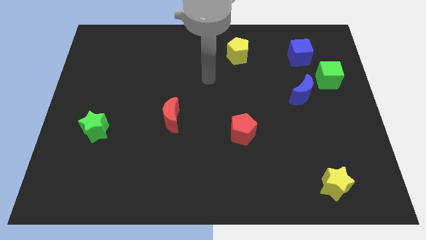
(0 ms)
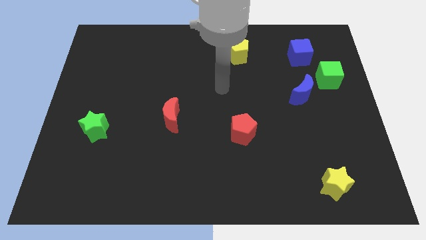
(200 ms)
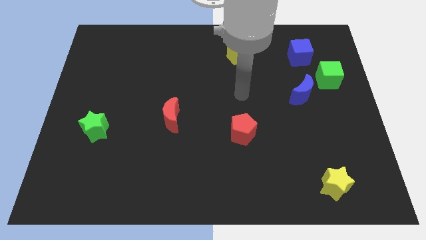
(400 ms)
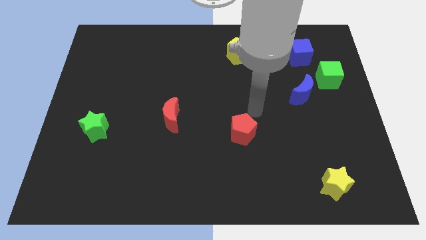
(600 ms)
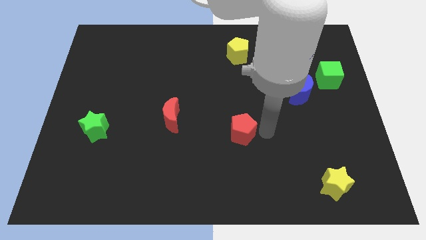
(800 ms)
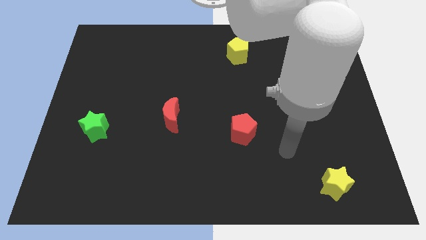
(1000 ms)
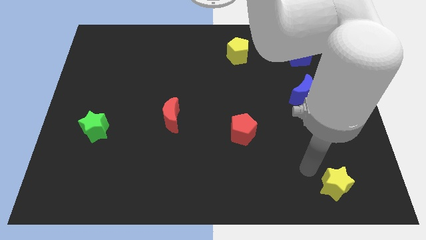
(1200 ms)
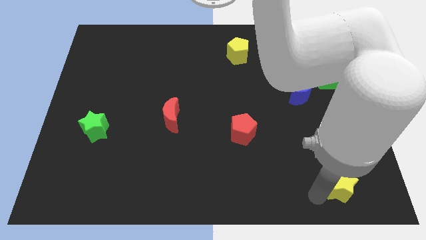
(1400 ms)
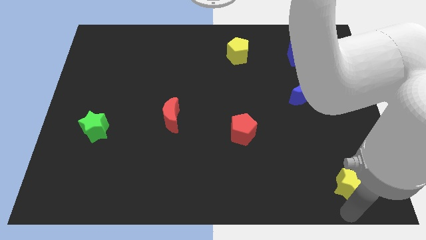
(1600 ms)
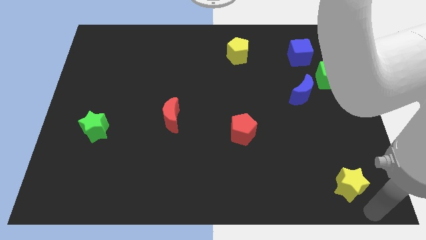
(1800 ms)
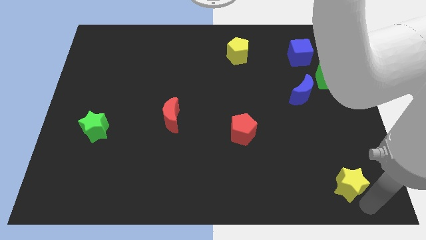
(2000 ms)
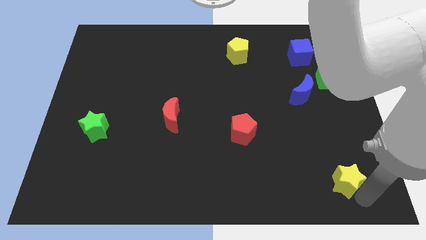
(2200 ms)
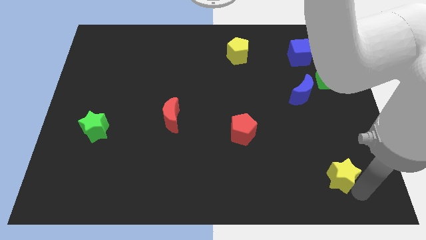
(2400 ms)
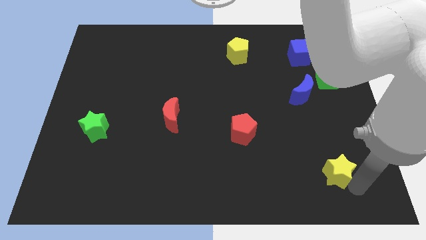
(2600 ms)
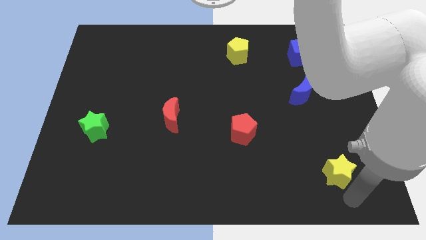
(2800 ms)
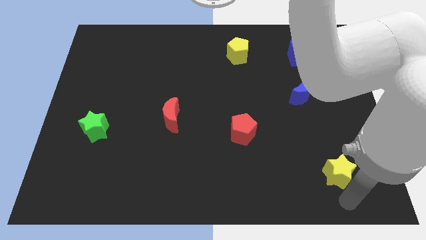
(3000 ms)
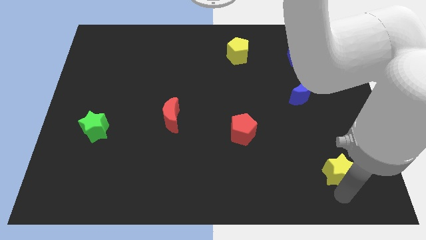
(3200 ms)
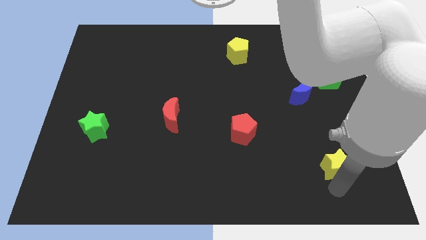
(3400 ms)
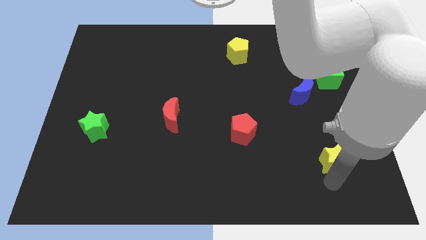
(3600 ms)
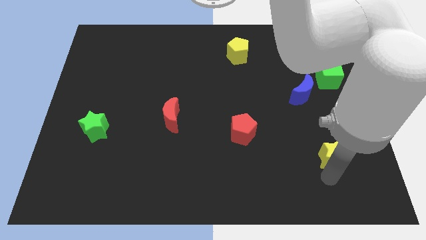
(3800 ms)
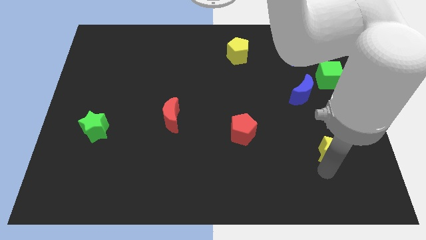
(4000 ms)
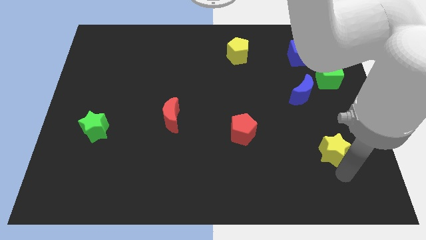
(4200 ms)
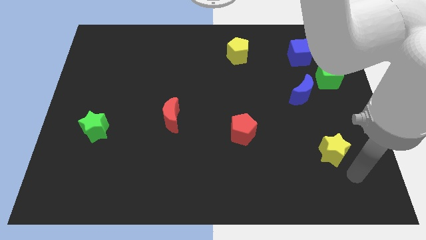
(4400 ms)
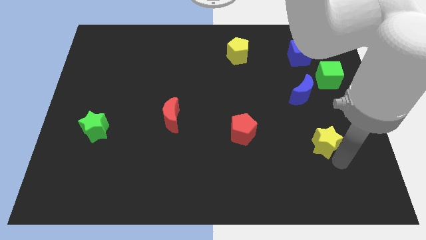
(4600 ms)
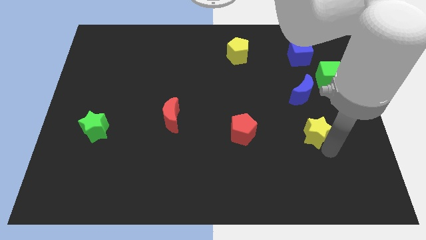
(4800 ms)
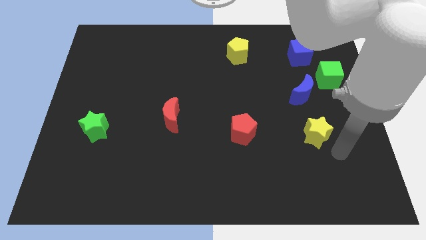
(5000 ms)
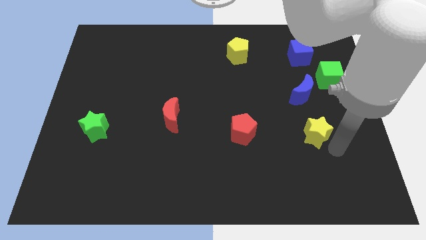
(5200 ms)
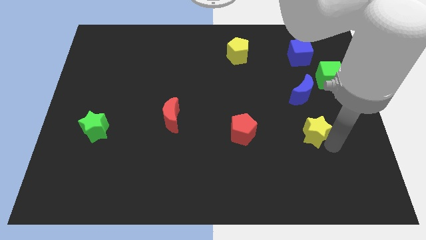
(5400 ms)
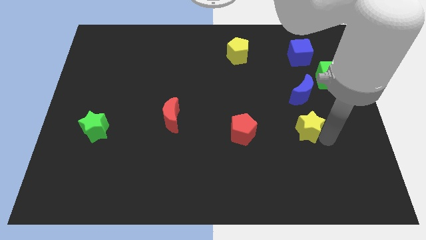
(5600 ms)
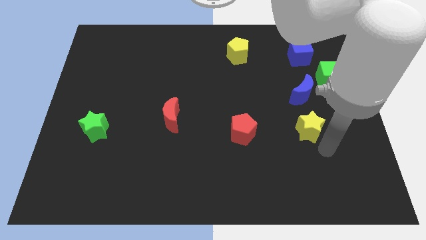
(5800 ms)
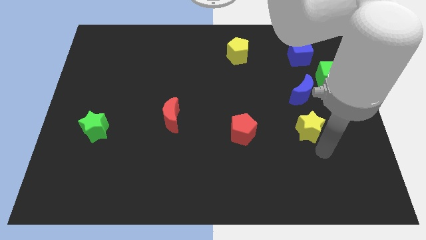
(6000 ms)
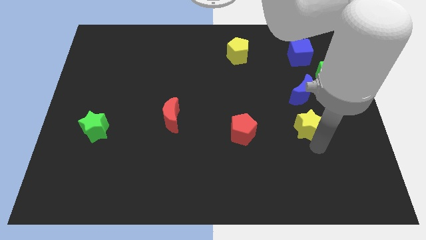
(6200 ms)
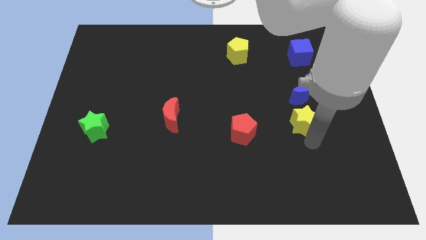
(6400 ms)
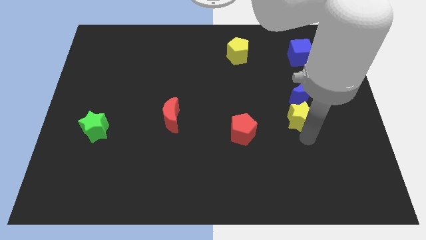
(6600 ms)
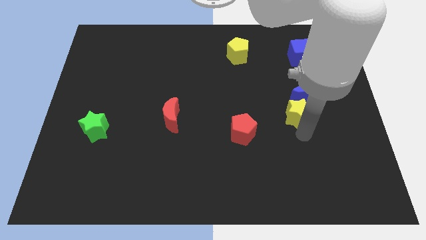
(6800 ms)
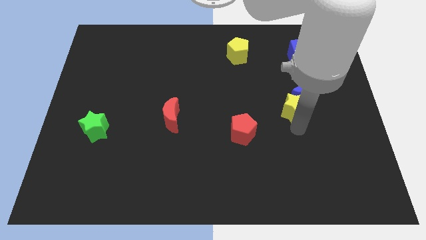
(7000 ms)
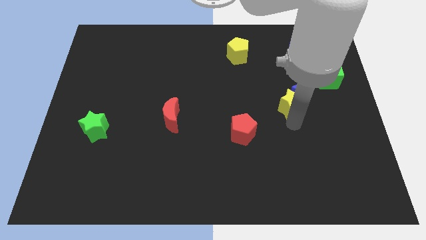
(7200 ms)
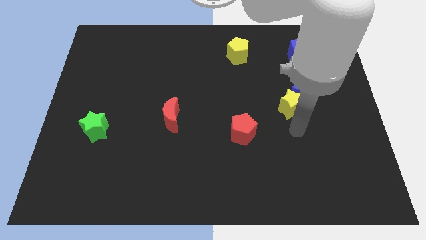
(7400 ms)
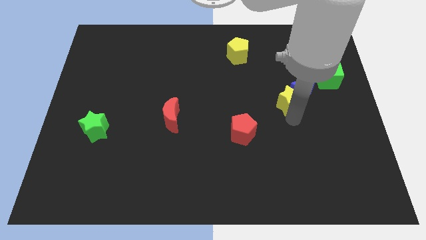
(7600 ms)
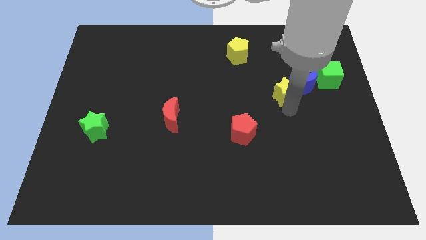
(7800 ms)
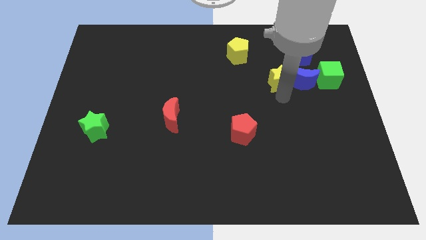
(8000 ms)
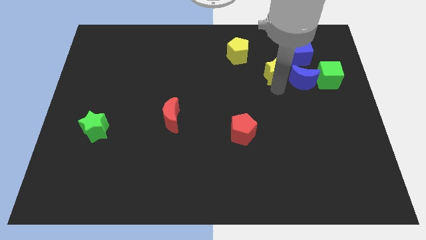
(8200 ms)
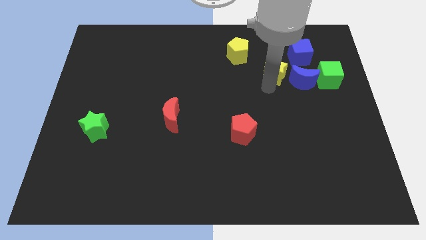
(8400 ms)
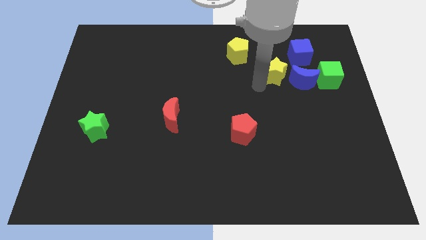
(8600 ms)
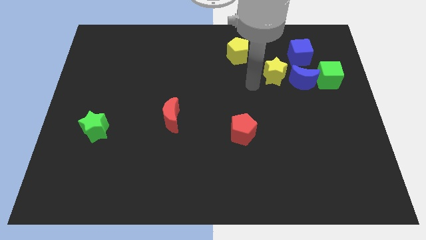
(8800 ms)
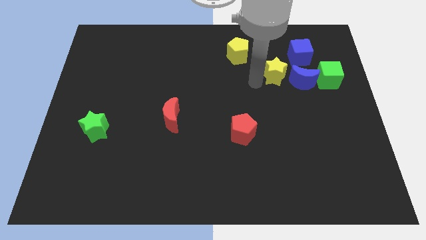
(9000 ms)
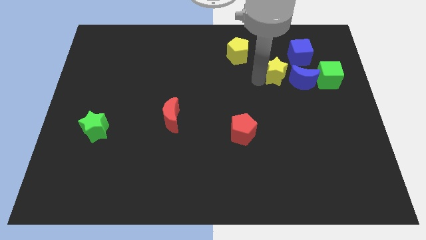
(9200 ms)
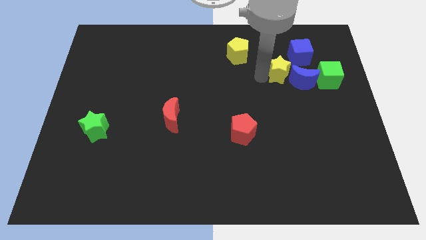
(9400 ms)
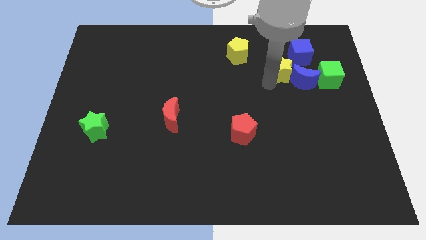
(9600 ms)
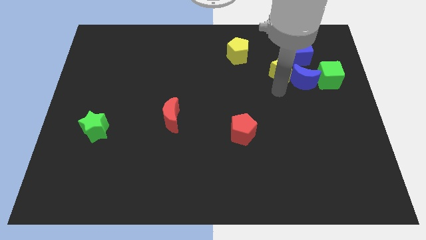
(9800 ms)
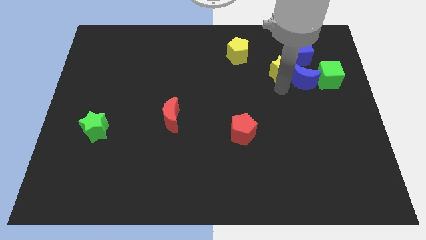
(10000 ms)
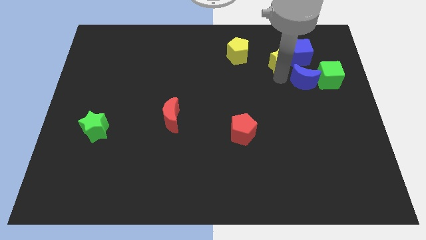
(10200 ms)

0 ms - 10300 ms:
push the yellow star to the right side of the yellow pentagon

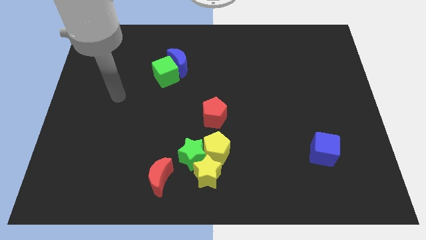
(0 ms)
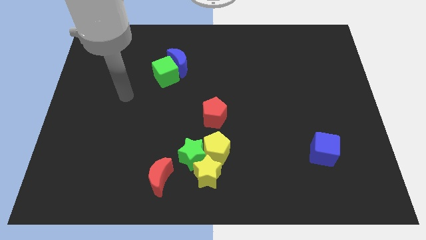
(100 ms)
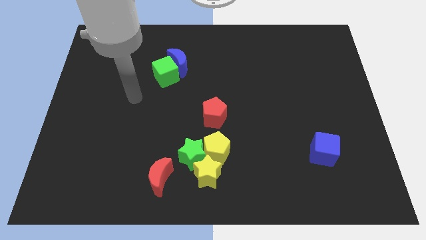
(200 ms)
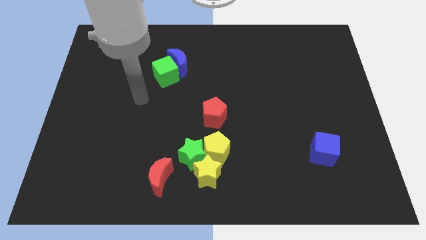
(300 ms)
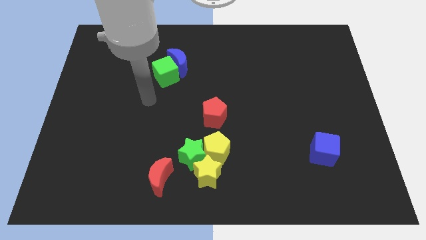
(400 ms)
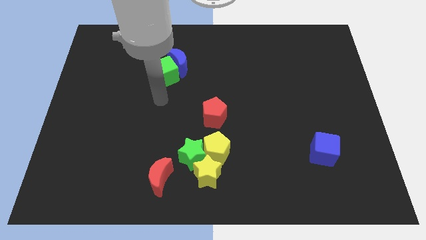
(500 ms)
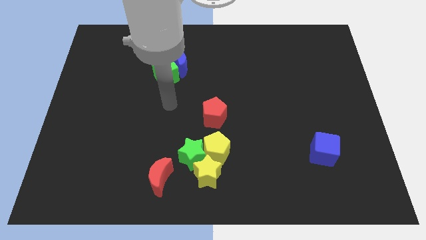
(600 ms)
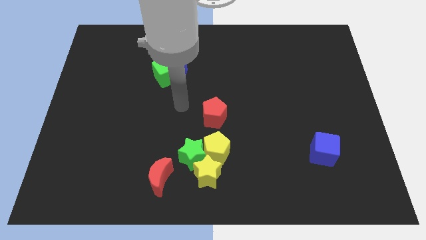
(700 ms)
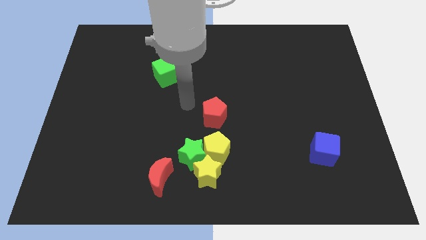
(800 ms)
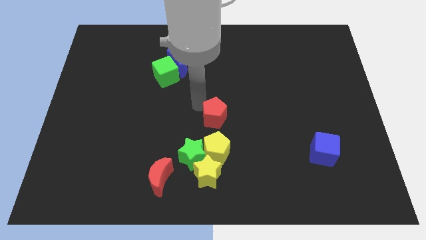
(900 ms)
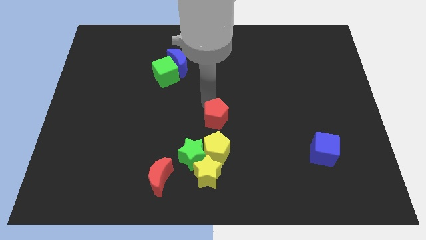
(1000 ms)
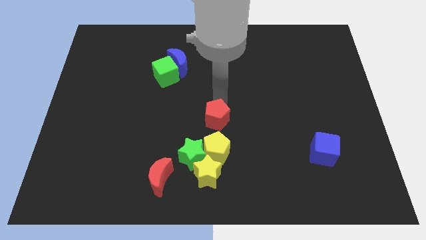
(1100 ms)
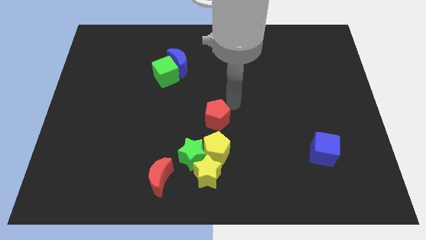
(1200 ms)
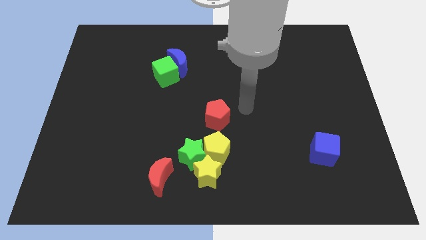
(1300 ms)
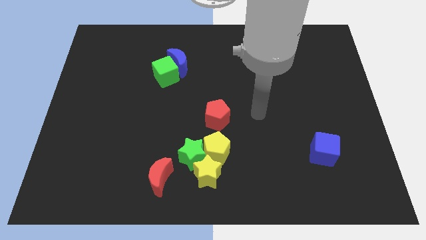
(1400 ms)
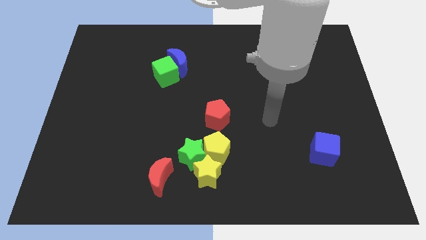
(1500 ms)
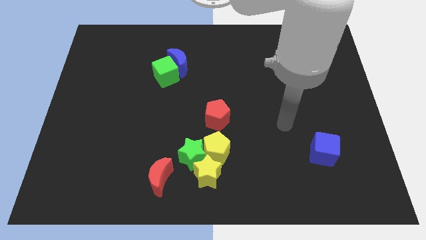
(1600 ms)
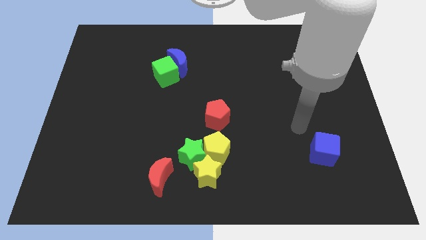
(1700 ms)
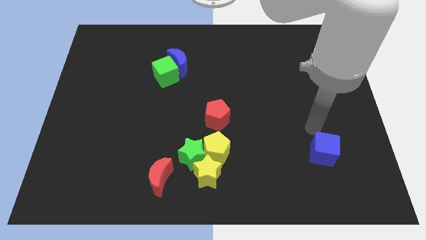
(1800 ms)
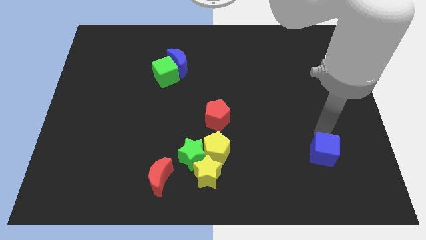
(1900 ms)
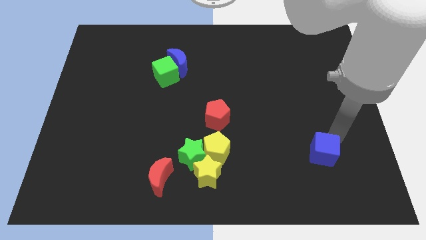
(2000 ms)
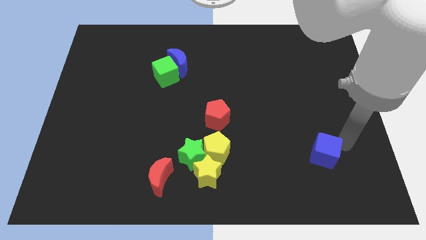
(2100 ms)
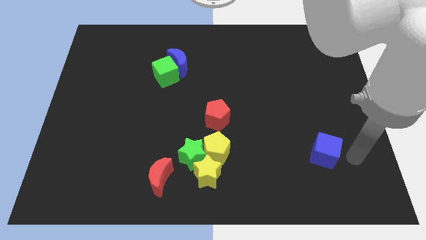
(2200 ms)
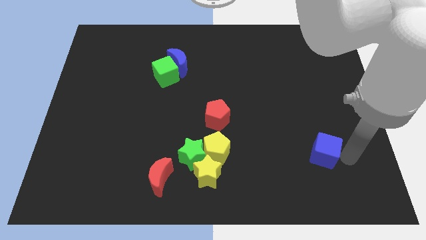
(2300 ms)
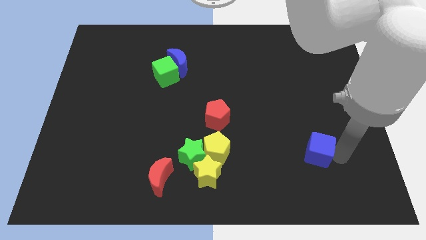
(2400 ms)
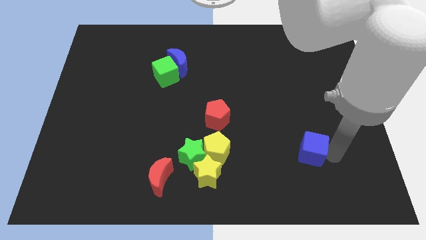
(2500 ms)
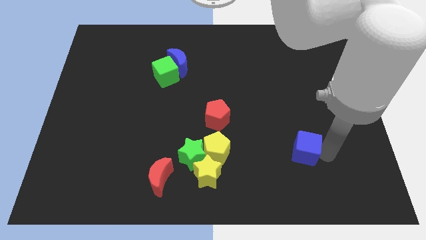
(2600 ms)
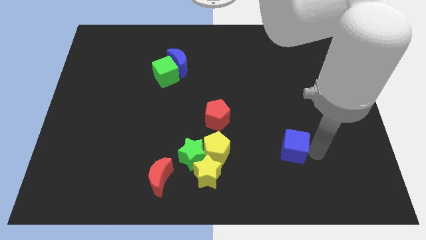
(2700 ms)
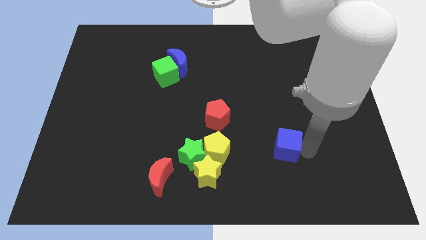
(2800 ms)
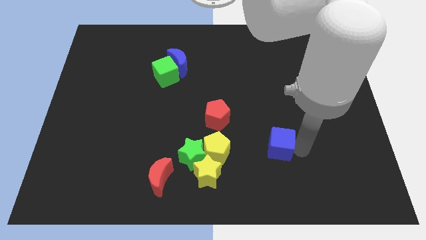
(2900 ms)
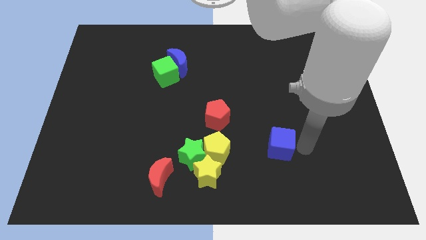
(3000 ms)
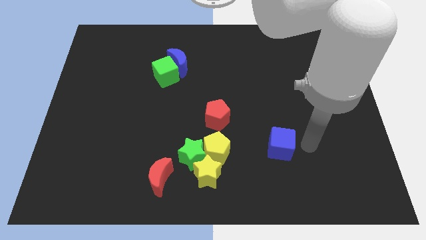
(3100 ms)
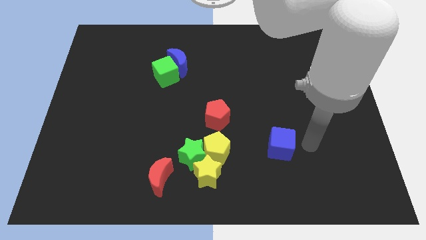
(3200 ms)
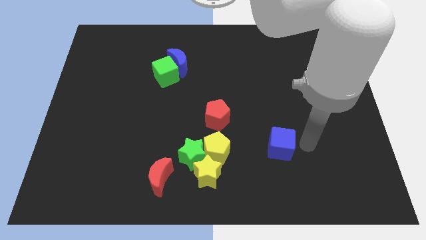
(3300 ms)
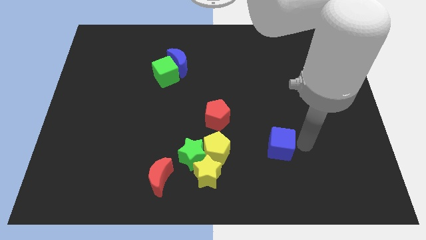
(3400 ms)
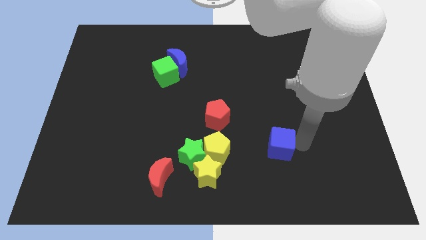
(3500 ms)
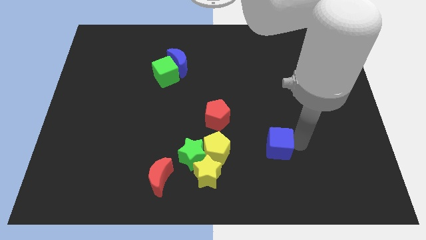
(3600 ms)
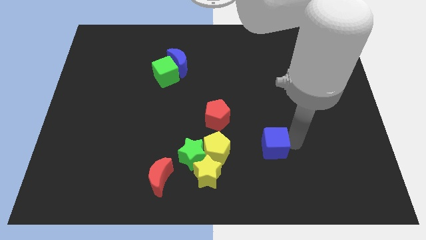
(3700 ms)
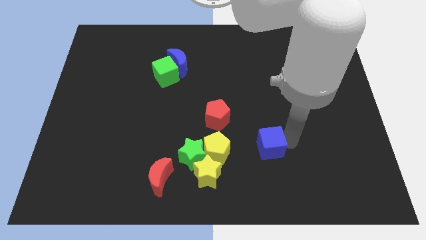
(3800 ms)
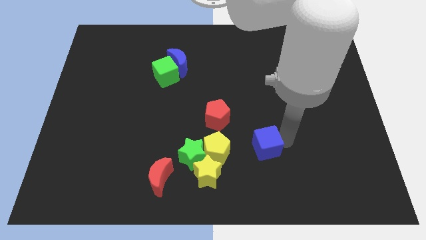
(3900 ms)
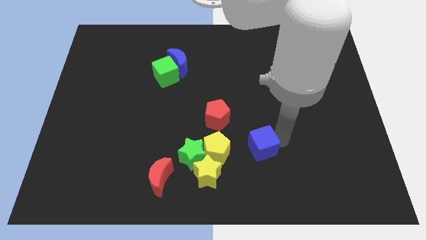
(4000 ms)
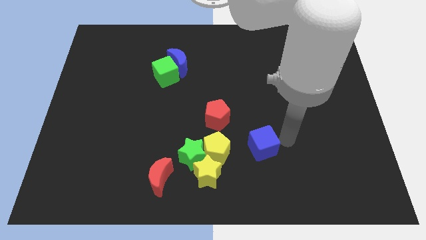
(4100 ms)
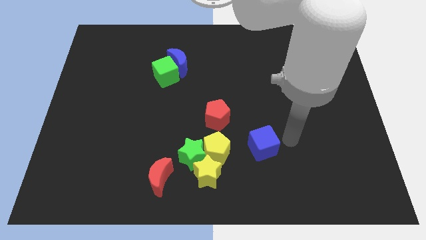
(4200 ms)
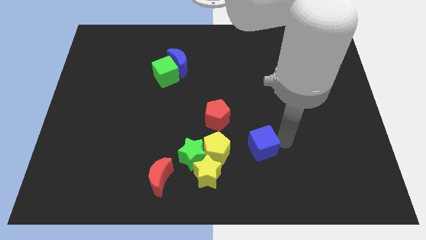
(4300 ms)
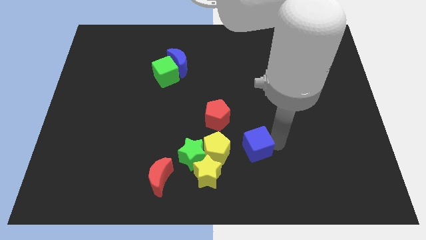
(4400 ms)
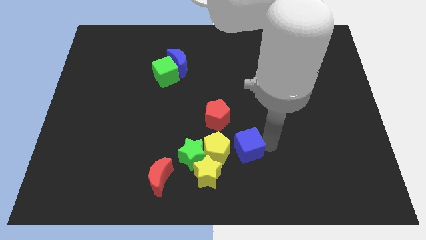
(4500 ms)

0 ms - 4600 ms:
move the blue cube to the top right side of the yellow star
